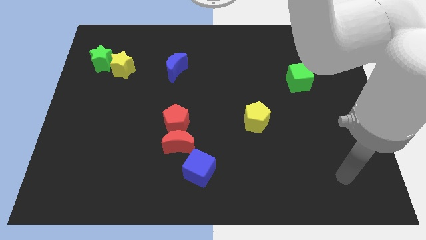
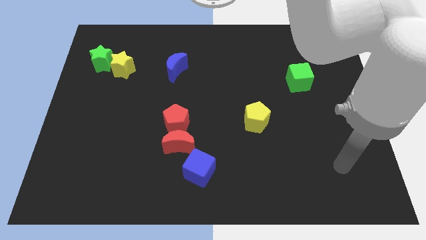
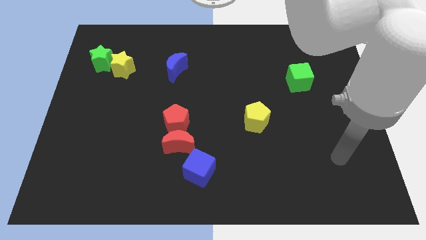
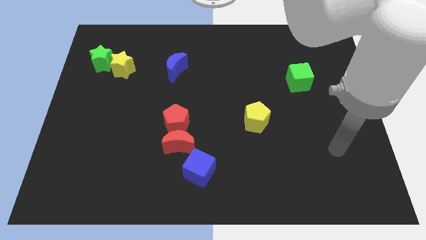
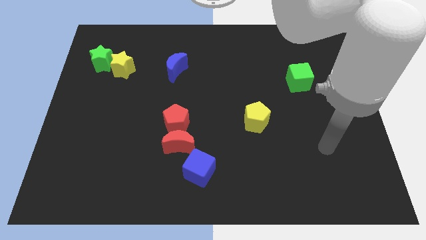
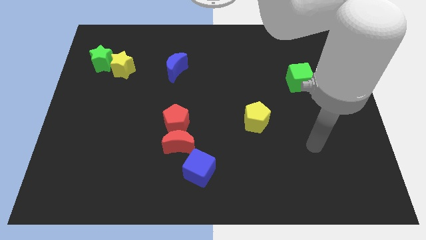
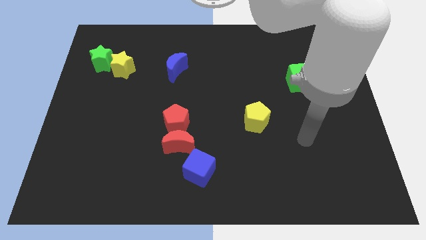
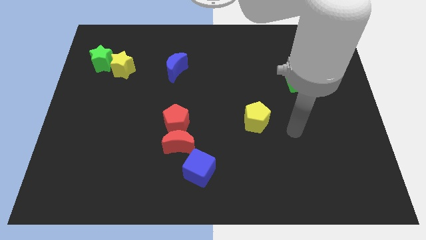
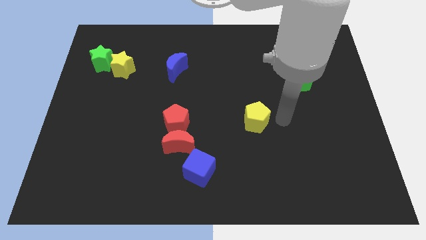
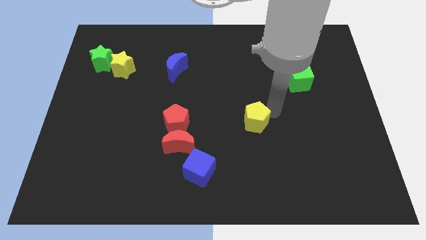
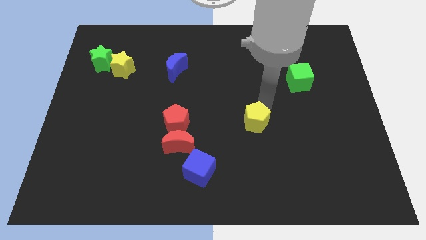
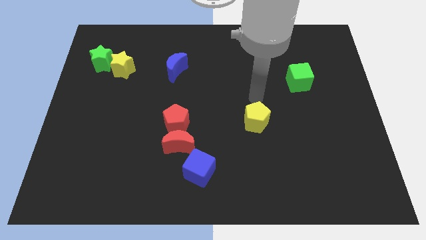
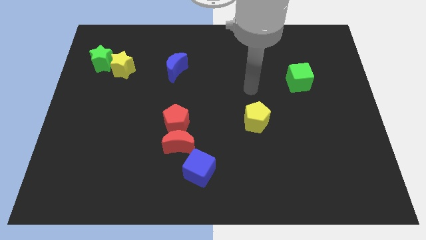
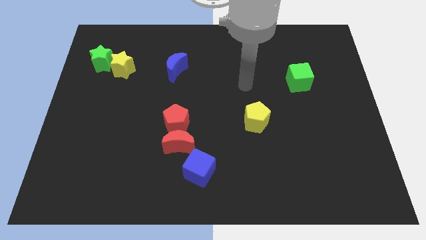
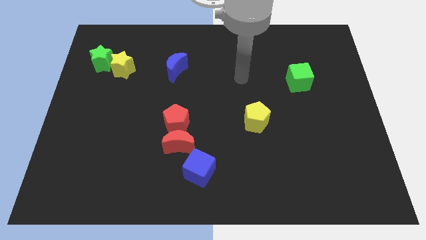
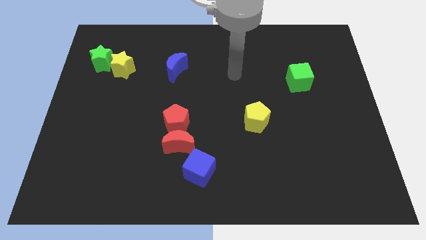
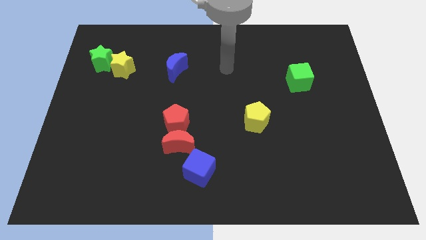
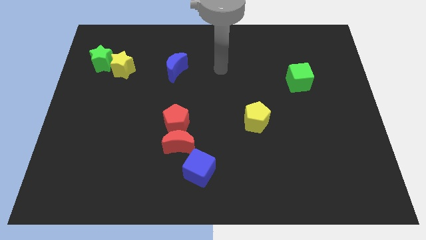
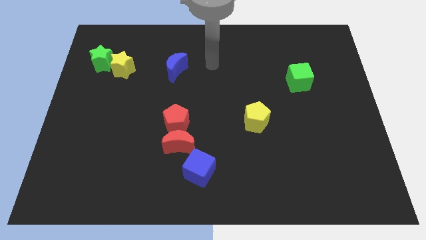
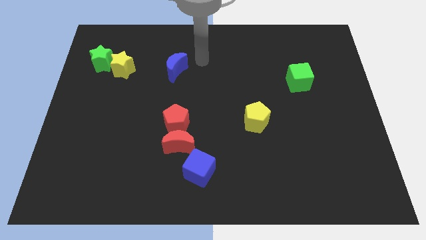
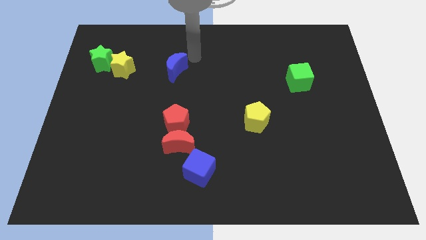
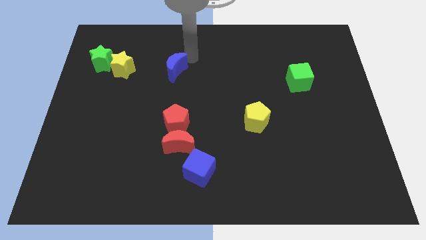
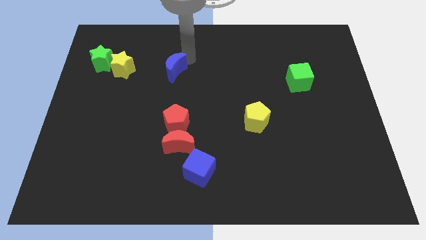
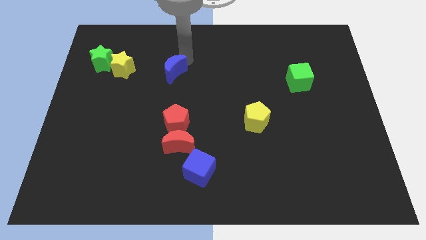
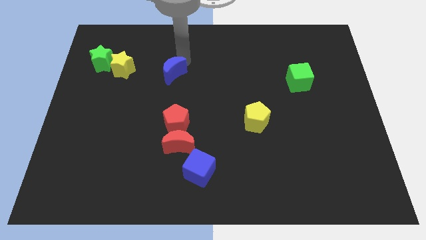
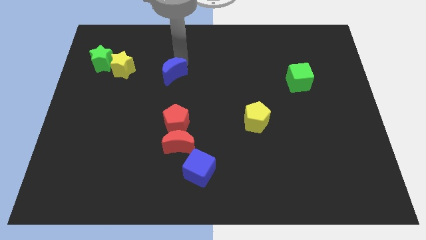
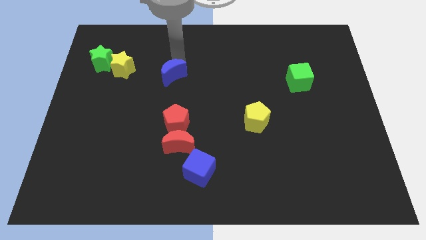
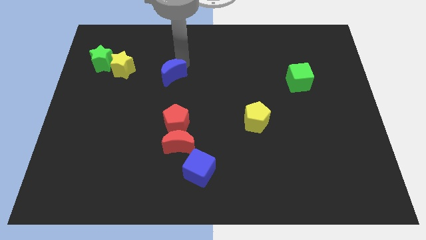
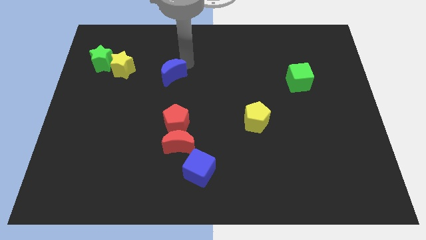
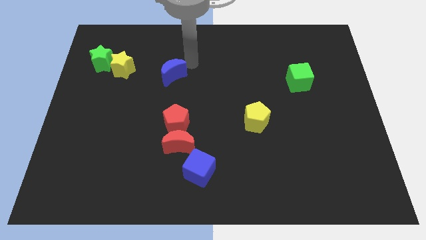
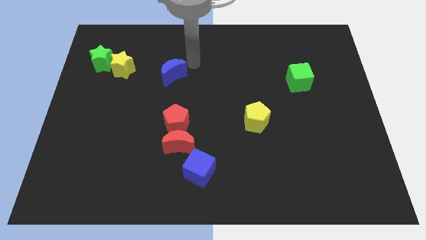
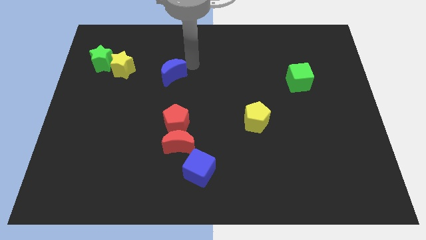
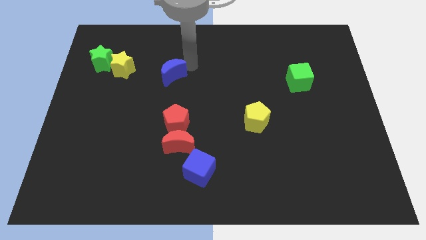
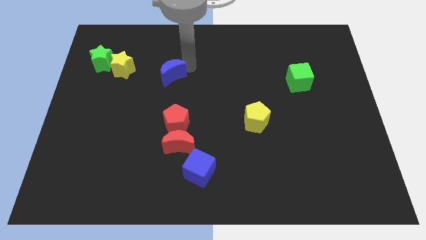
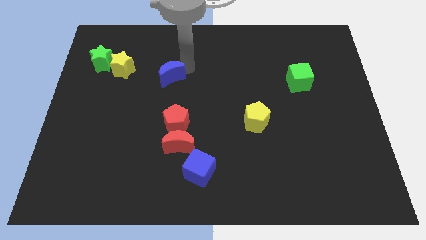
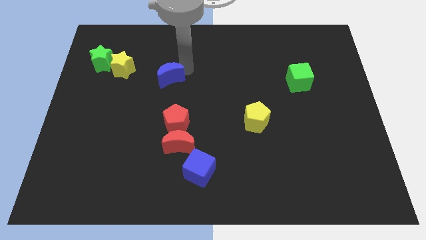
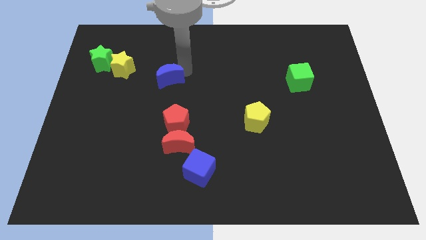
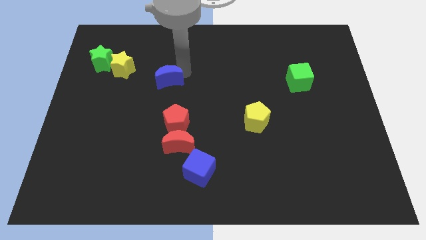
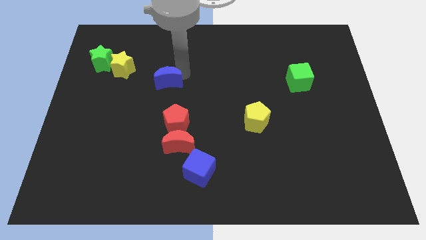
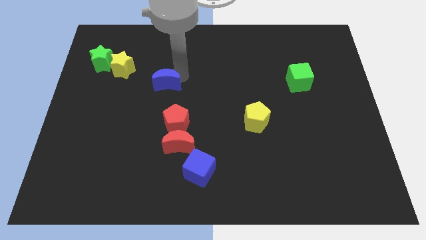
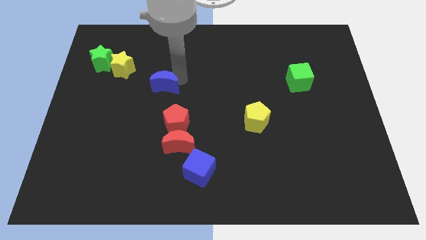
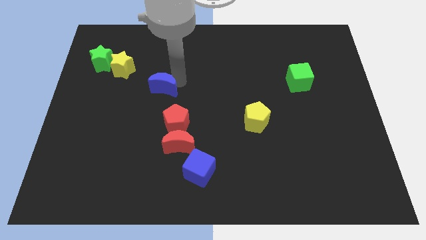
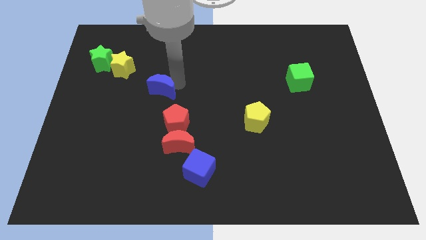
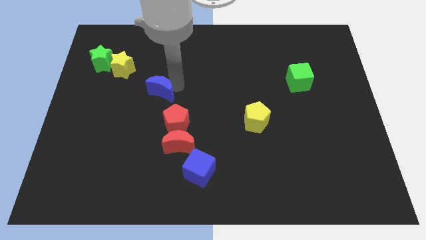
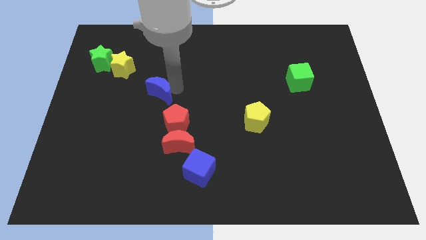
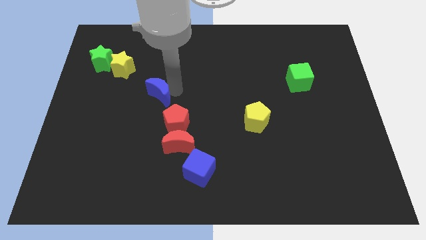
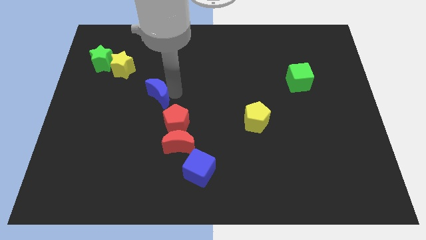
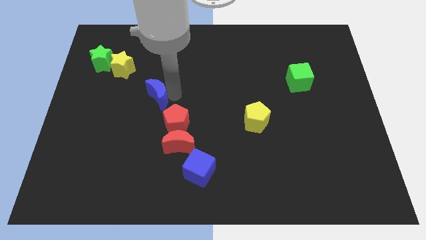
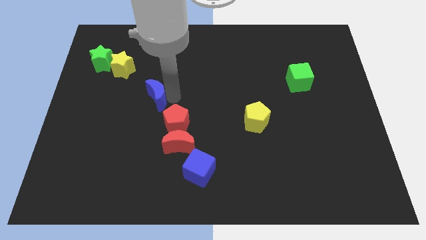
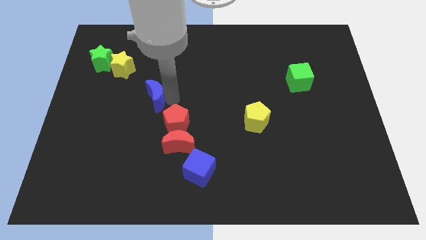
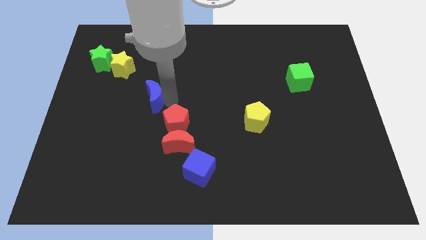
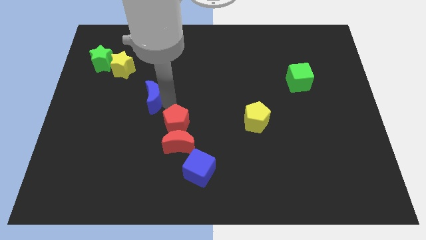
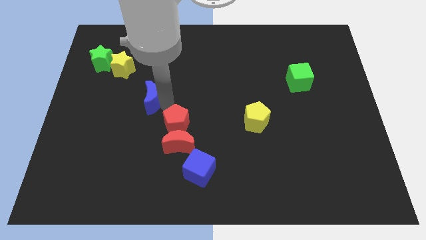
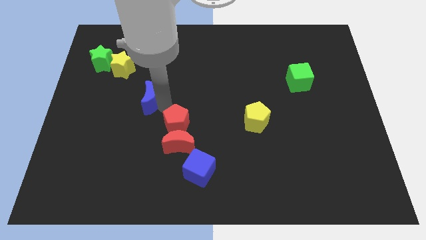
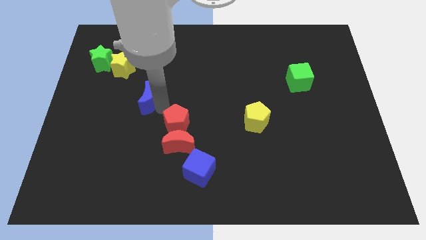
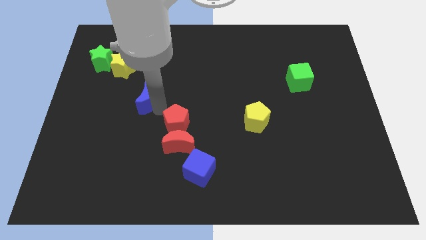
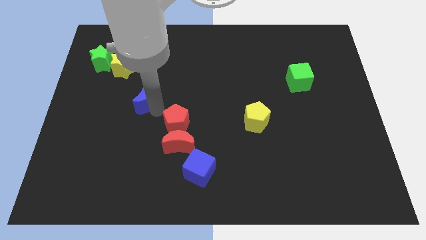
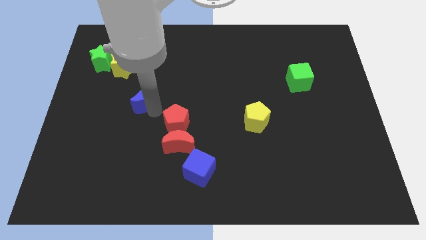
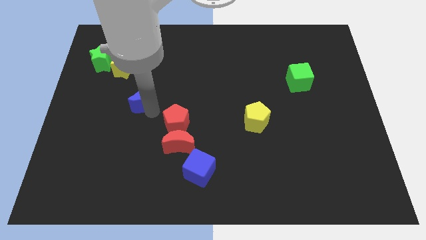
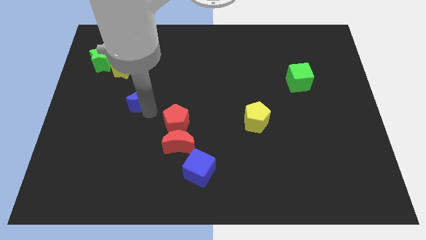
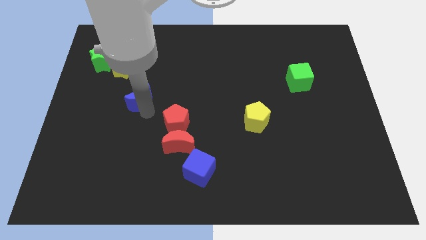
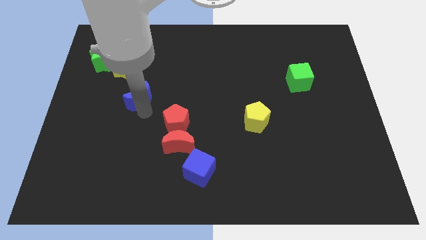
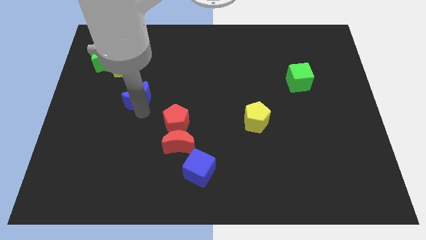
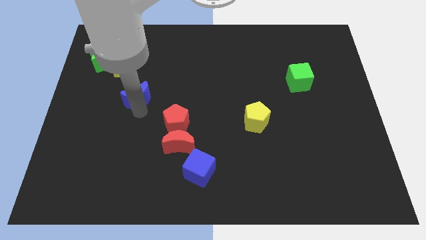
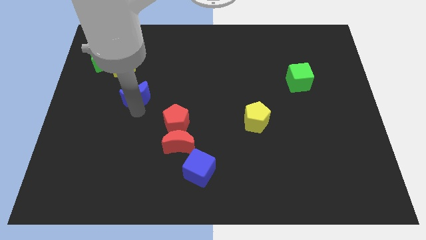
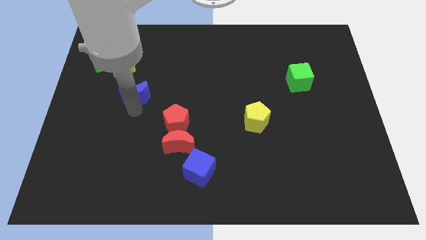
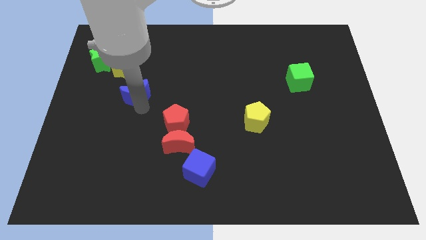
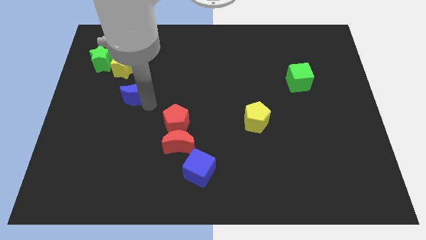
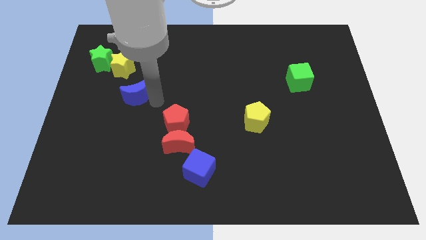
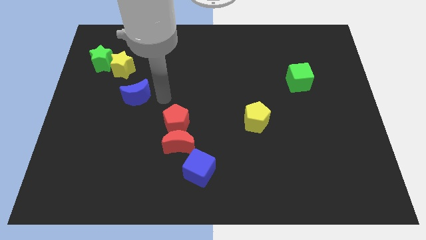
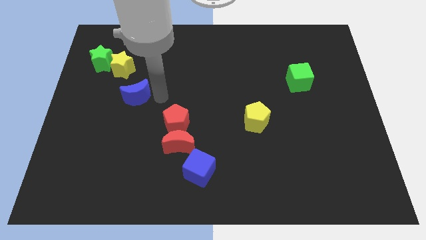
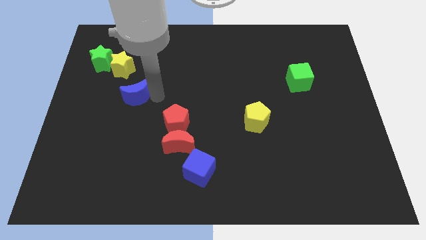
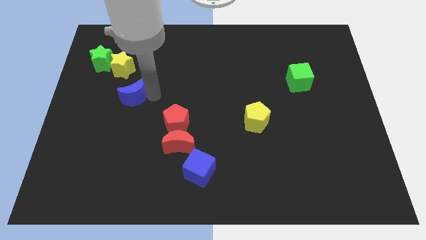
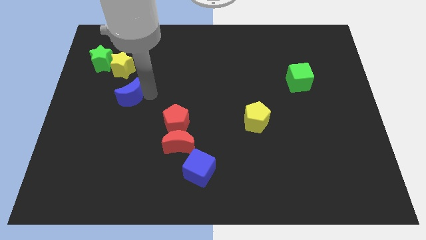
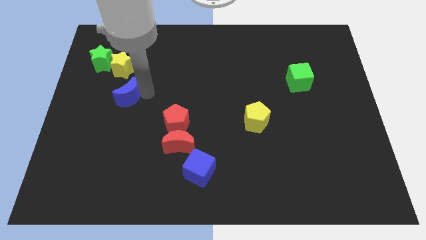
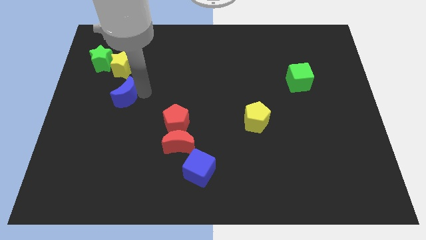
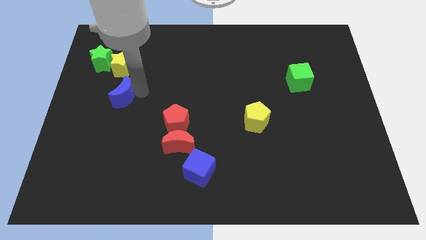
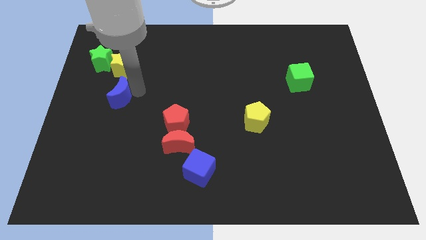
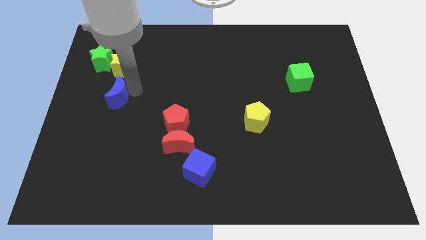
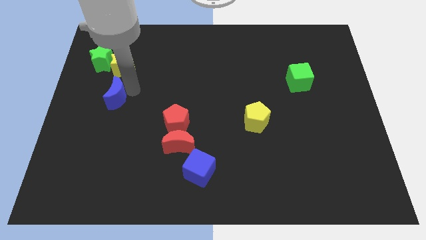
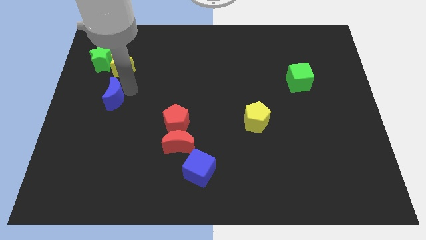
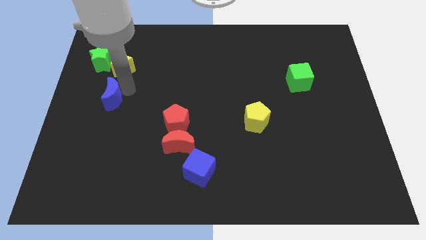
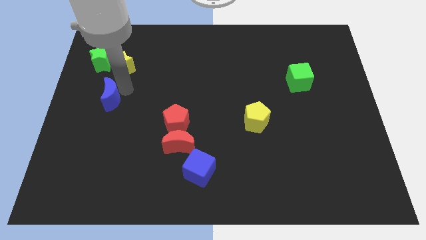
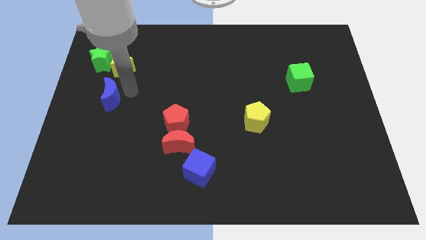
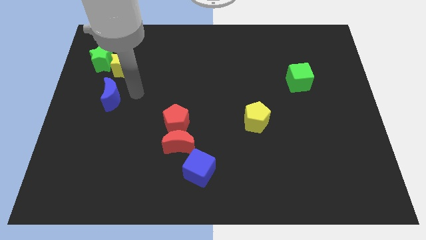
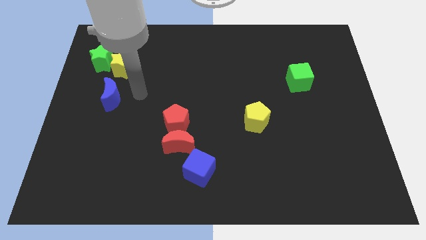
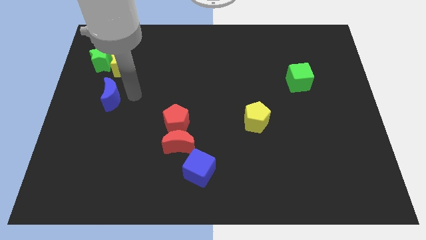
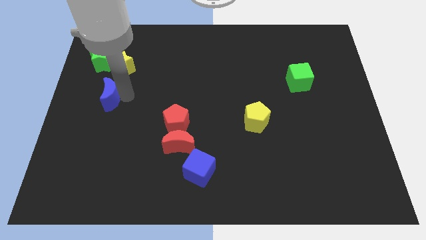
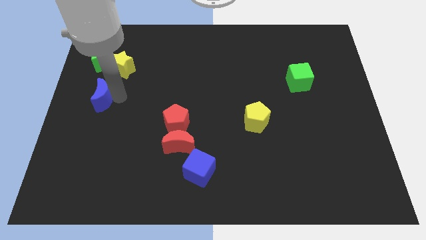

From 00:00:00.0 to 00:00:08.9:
move the blue moon to the left side
